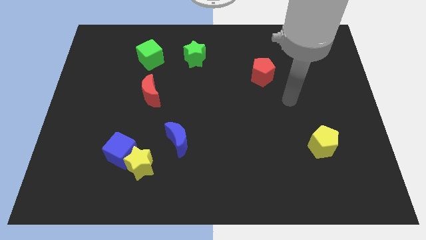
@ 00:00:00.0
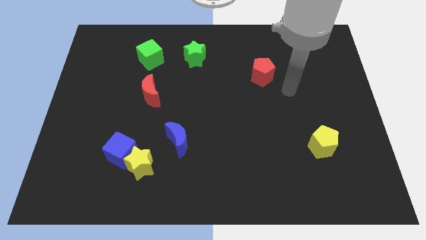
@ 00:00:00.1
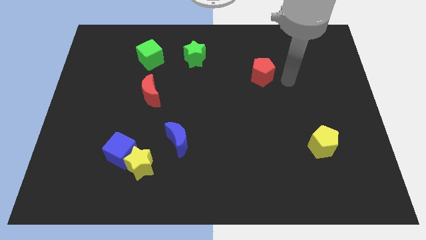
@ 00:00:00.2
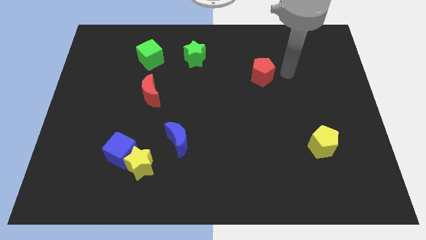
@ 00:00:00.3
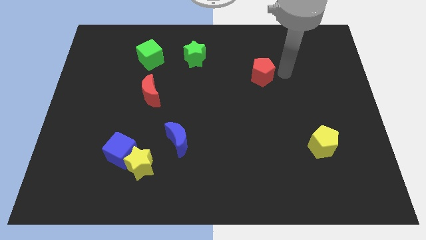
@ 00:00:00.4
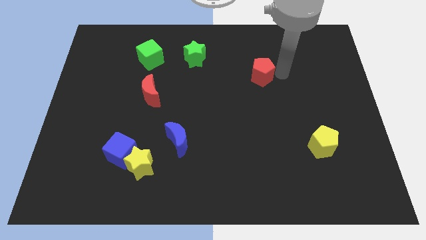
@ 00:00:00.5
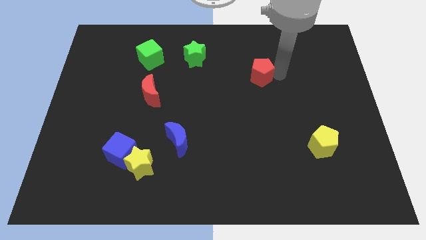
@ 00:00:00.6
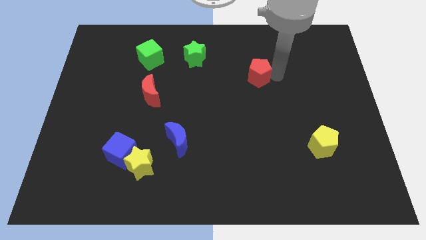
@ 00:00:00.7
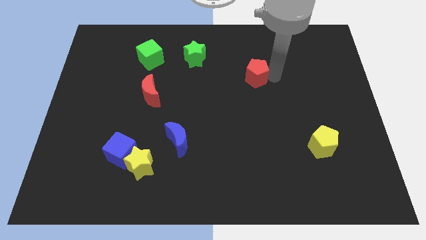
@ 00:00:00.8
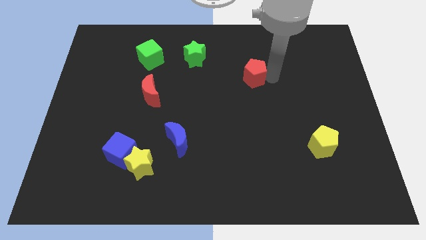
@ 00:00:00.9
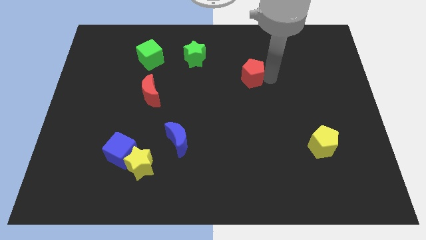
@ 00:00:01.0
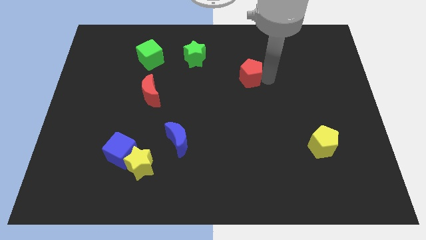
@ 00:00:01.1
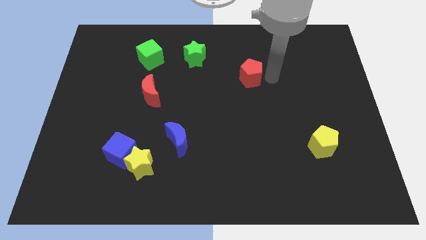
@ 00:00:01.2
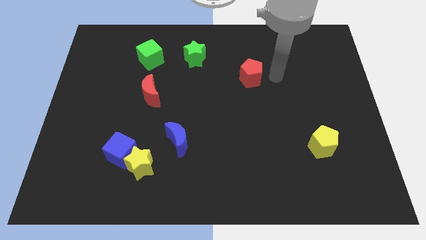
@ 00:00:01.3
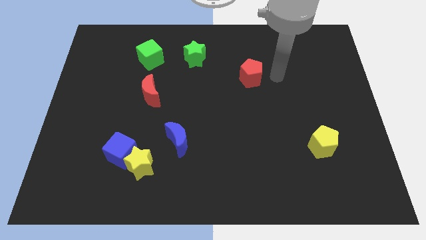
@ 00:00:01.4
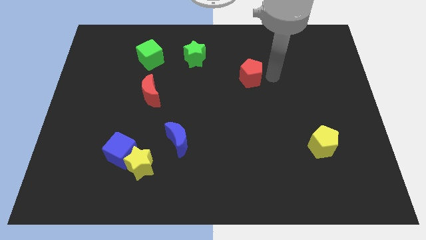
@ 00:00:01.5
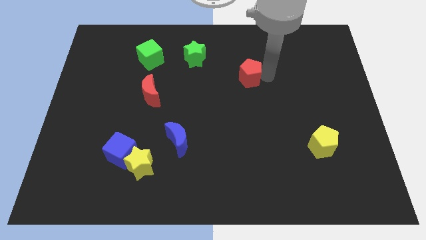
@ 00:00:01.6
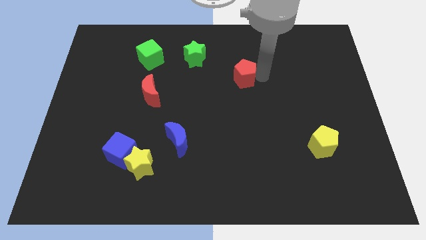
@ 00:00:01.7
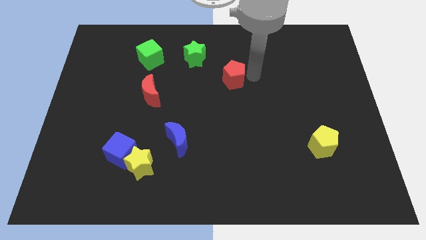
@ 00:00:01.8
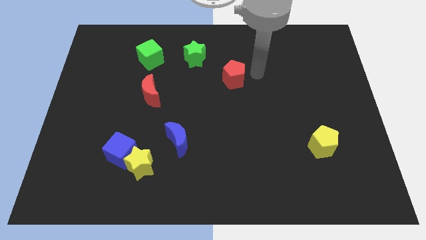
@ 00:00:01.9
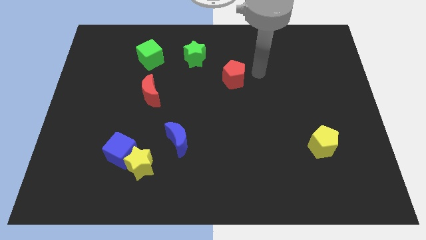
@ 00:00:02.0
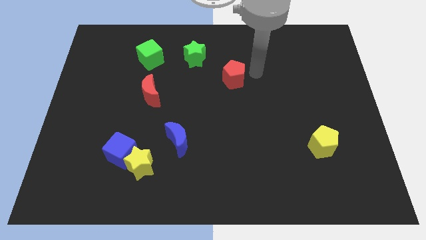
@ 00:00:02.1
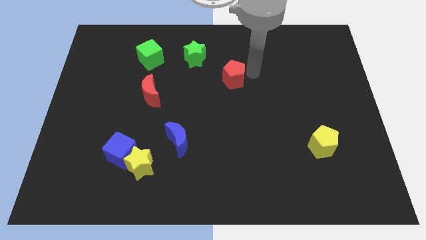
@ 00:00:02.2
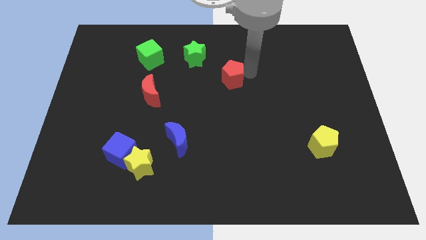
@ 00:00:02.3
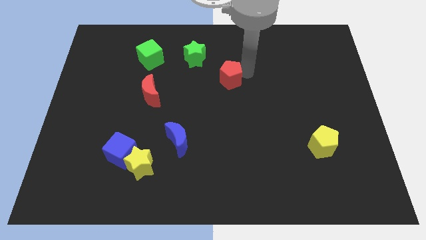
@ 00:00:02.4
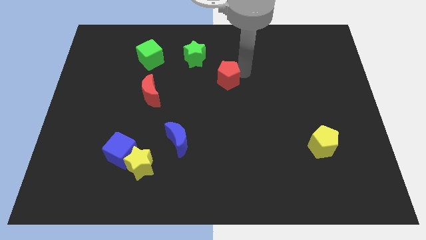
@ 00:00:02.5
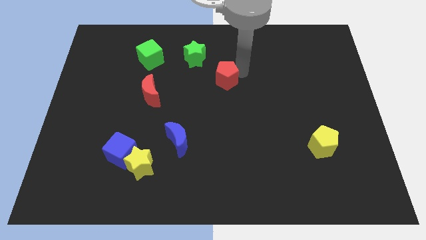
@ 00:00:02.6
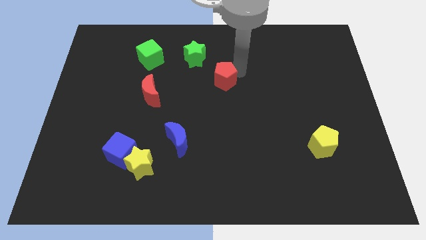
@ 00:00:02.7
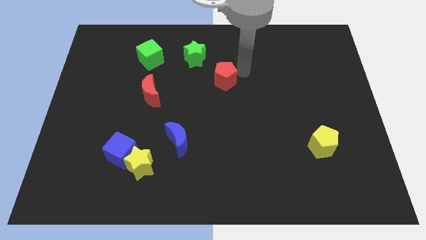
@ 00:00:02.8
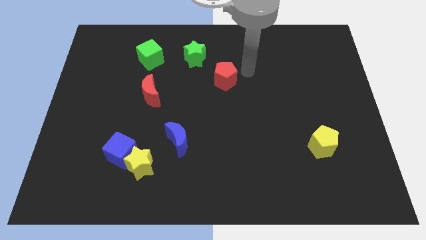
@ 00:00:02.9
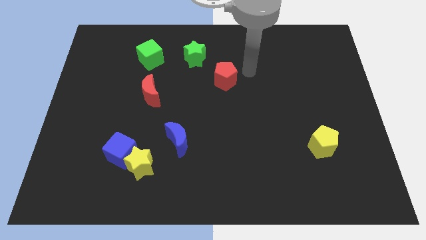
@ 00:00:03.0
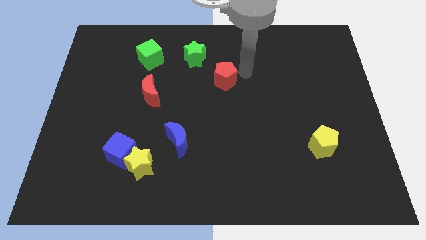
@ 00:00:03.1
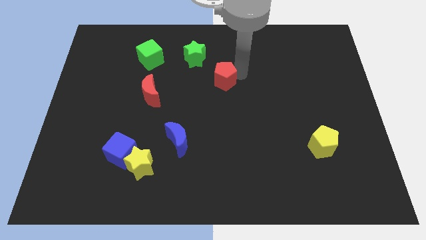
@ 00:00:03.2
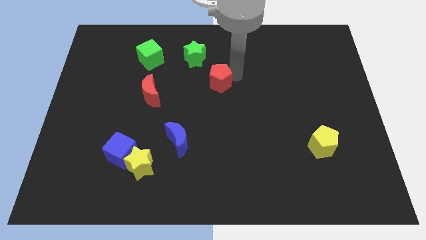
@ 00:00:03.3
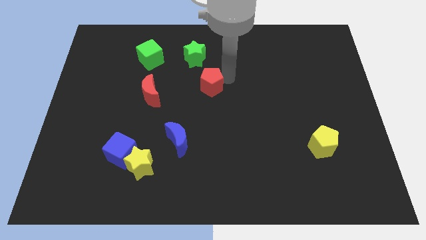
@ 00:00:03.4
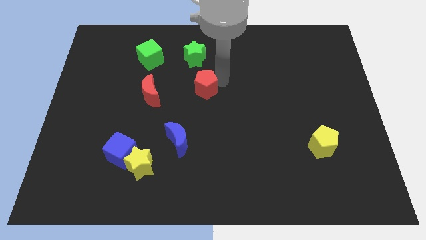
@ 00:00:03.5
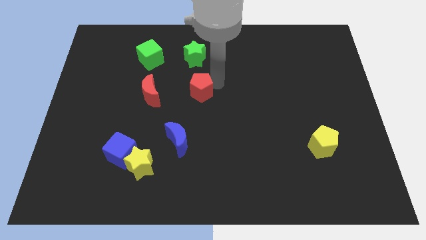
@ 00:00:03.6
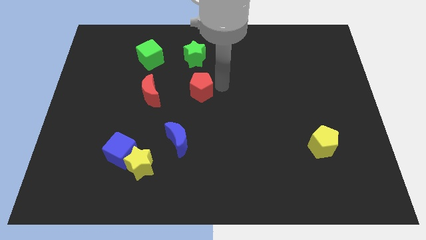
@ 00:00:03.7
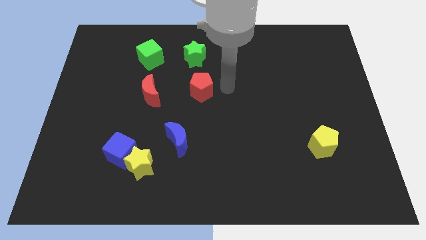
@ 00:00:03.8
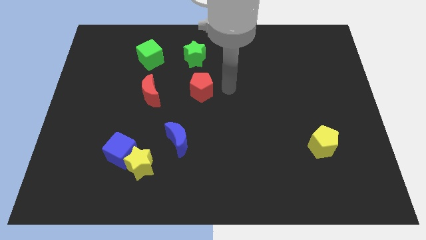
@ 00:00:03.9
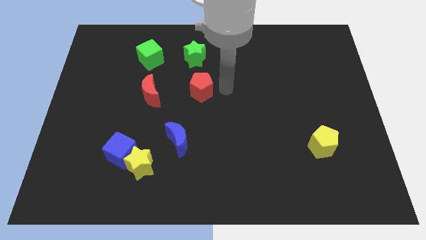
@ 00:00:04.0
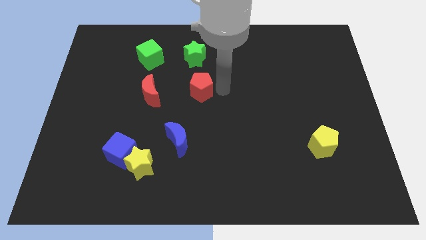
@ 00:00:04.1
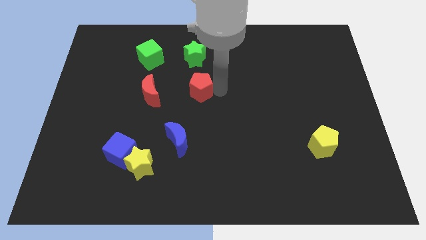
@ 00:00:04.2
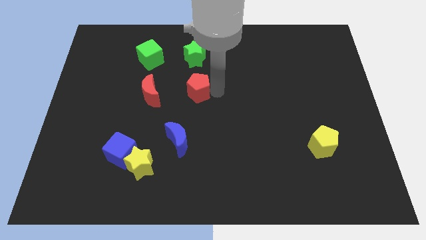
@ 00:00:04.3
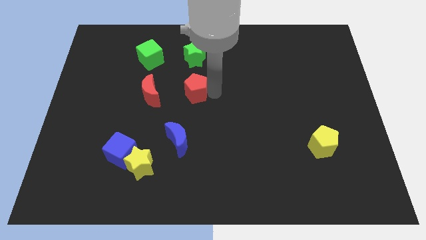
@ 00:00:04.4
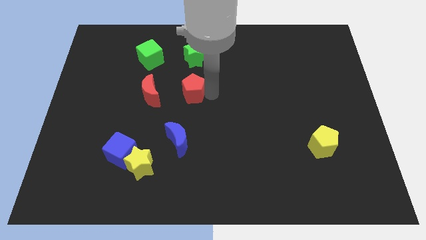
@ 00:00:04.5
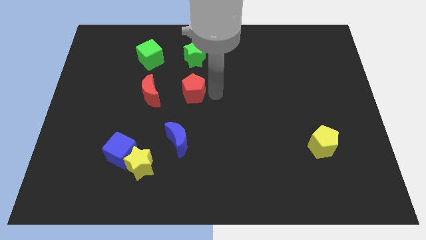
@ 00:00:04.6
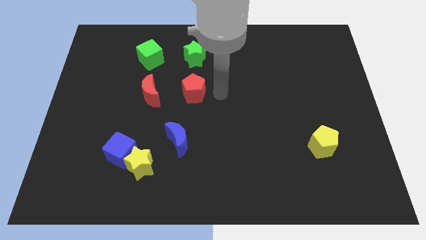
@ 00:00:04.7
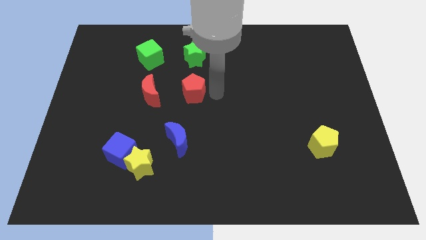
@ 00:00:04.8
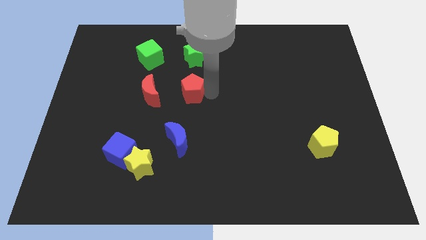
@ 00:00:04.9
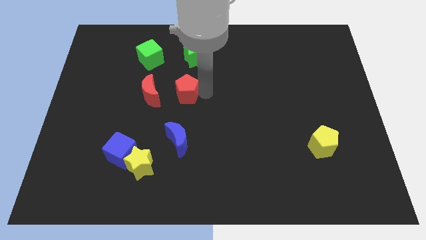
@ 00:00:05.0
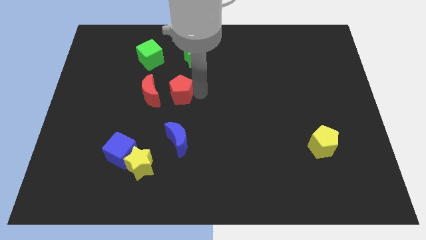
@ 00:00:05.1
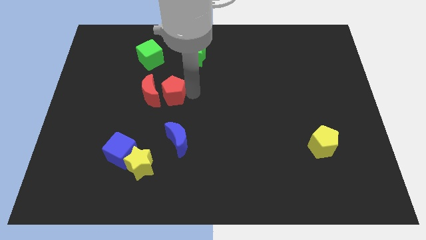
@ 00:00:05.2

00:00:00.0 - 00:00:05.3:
move the red pentagon close to the red moon

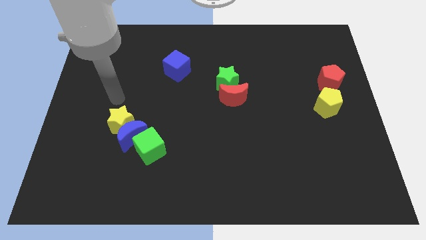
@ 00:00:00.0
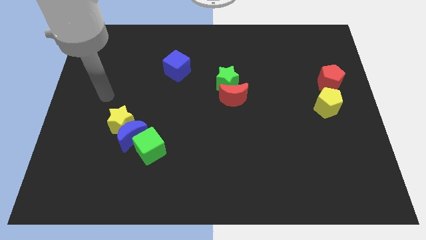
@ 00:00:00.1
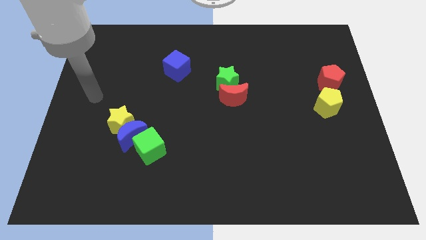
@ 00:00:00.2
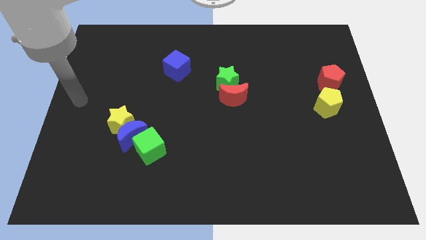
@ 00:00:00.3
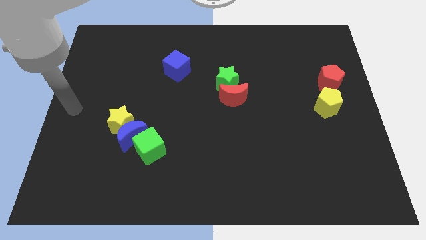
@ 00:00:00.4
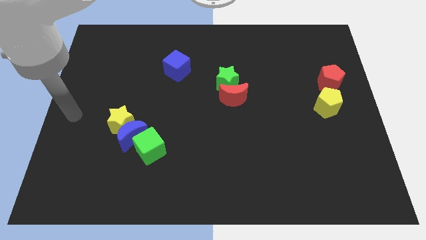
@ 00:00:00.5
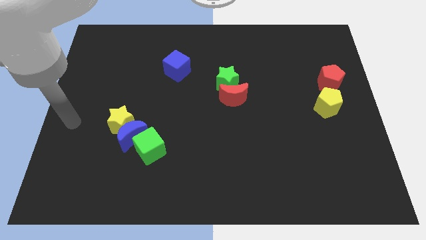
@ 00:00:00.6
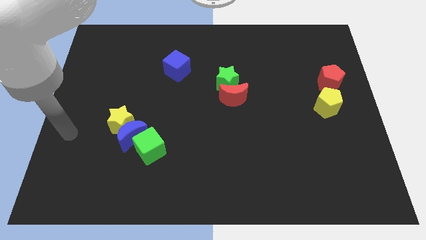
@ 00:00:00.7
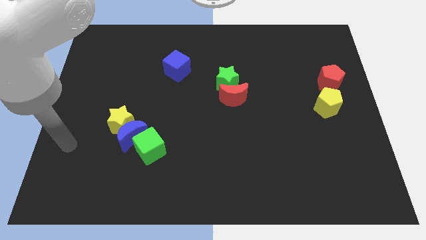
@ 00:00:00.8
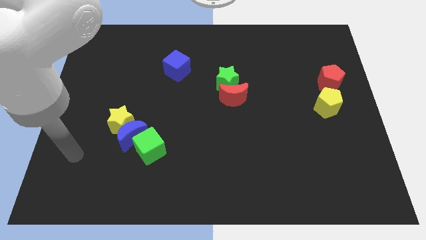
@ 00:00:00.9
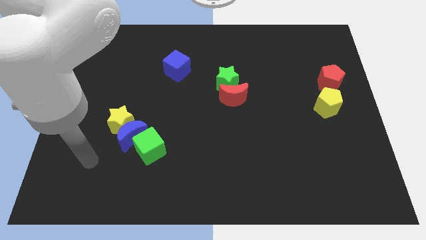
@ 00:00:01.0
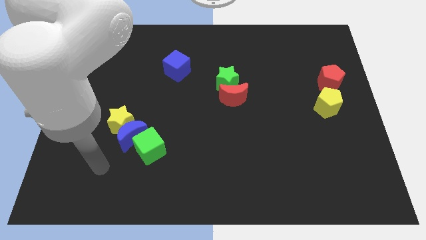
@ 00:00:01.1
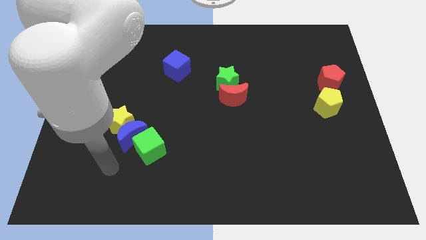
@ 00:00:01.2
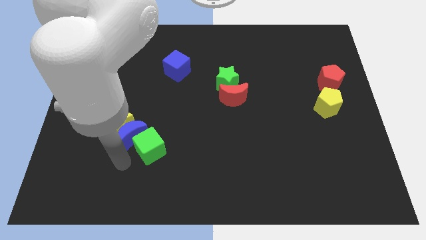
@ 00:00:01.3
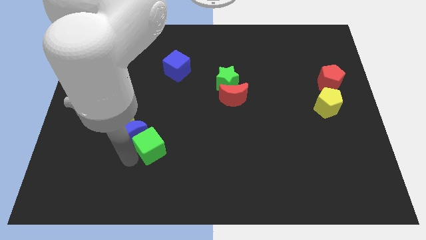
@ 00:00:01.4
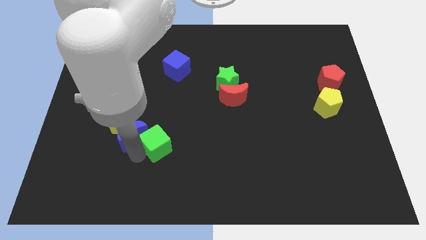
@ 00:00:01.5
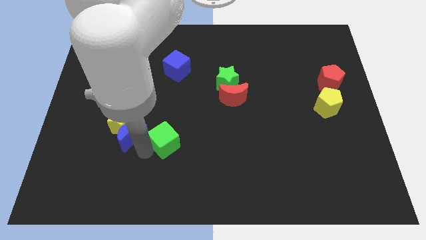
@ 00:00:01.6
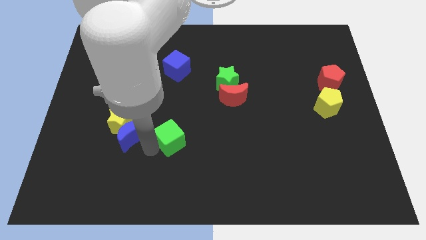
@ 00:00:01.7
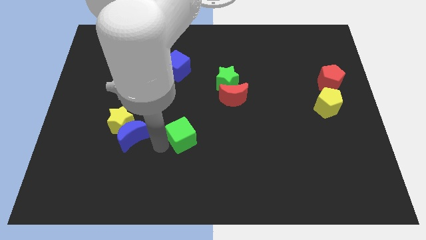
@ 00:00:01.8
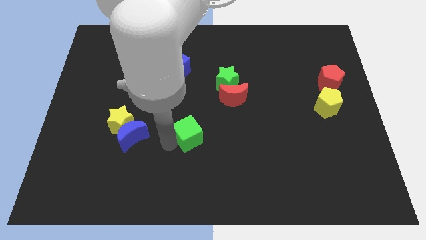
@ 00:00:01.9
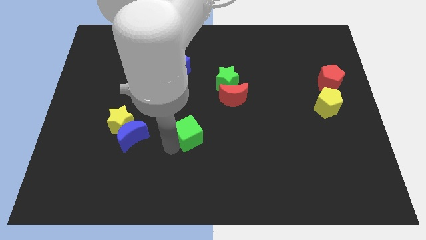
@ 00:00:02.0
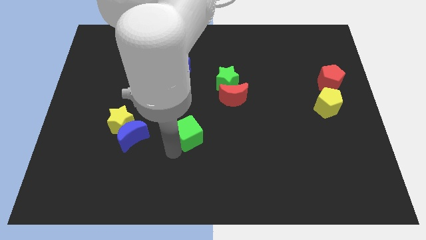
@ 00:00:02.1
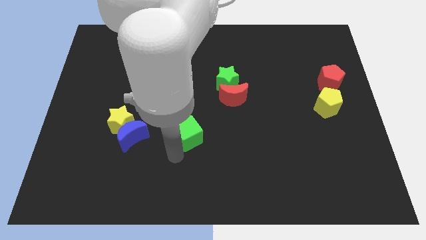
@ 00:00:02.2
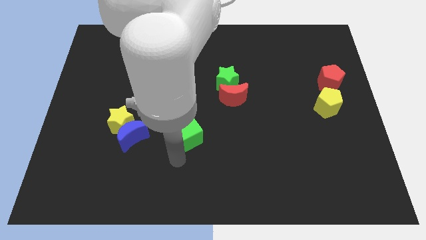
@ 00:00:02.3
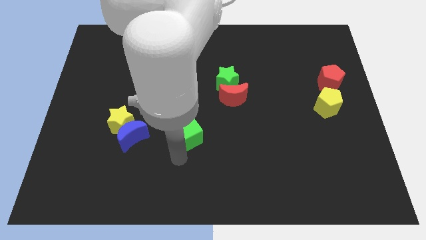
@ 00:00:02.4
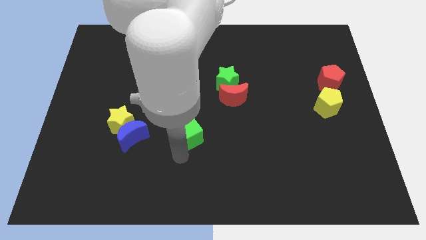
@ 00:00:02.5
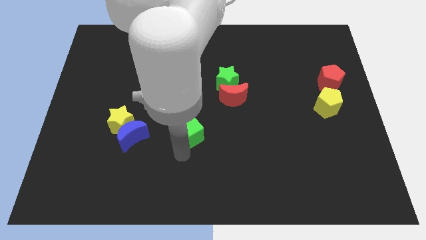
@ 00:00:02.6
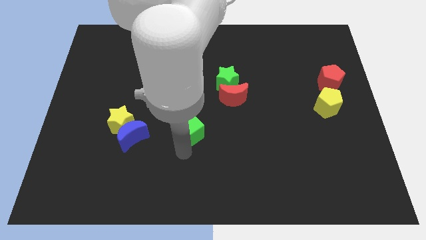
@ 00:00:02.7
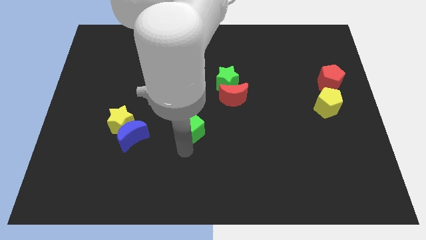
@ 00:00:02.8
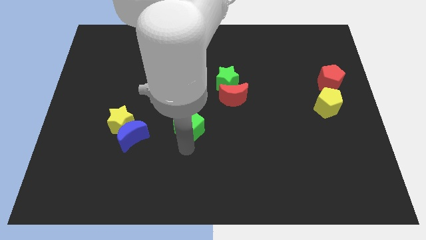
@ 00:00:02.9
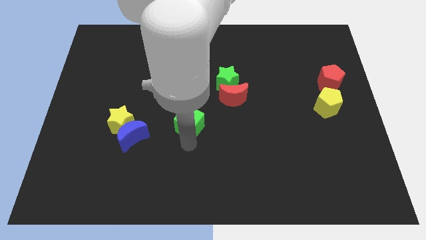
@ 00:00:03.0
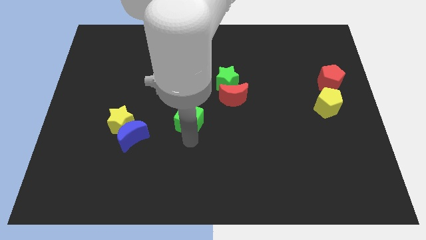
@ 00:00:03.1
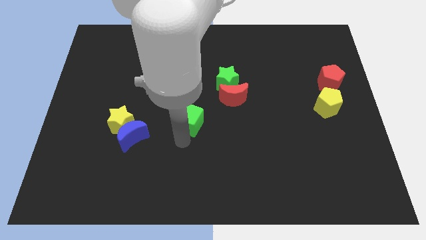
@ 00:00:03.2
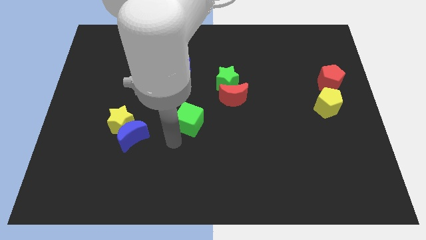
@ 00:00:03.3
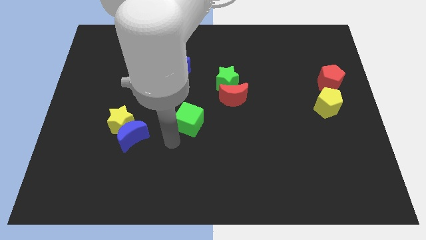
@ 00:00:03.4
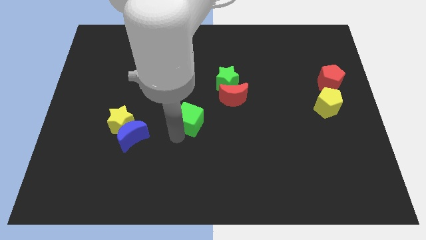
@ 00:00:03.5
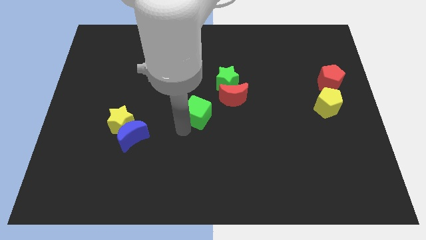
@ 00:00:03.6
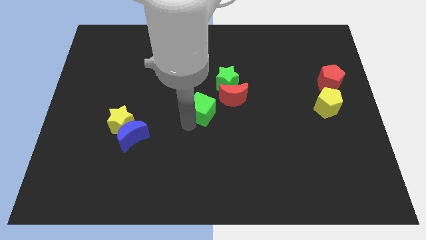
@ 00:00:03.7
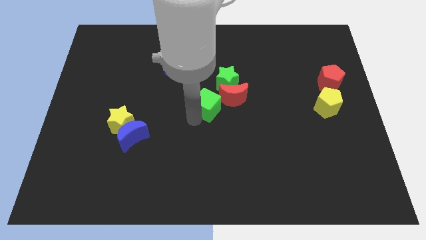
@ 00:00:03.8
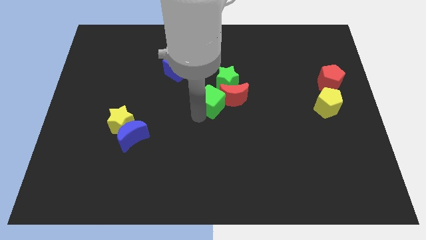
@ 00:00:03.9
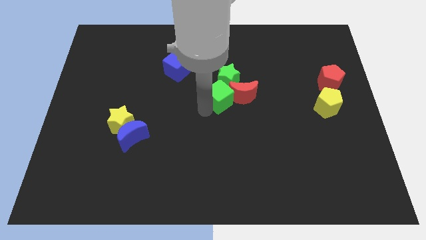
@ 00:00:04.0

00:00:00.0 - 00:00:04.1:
put the green cube towards the green star
